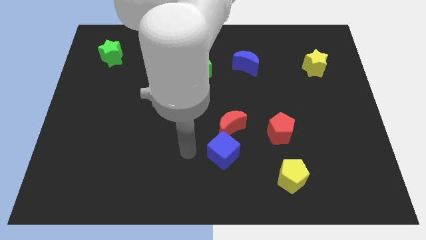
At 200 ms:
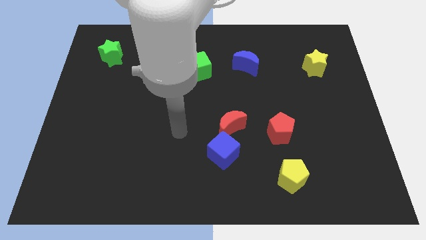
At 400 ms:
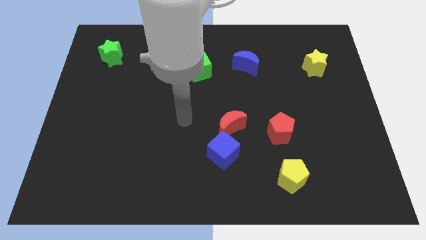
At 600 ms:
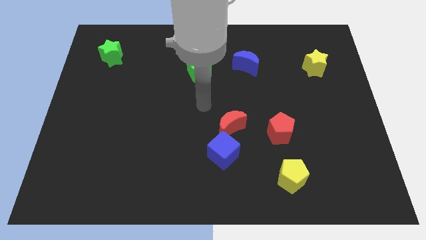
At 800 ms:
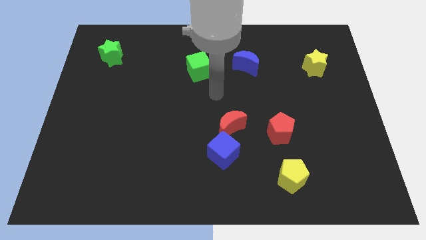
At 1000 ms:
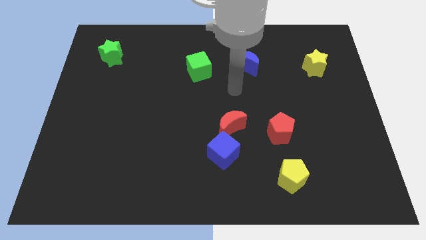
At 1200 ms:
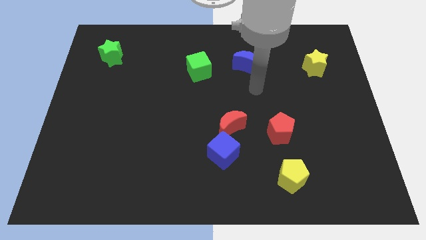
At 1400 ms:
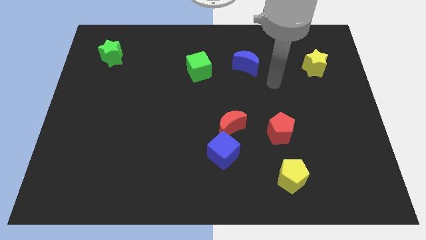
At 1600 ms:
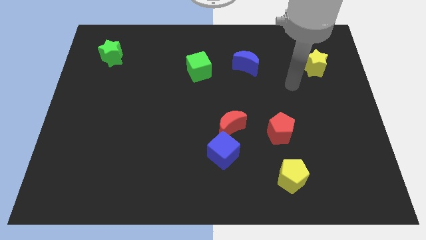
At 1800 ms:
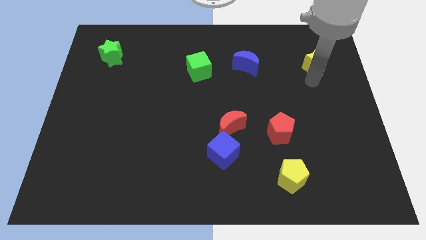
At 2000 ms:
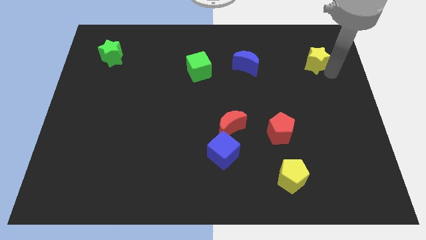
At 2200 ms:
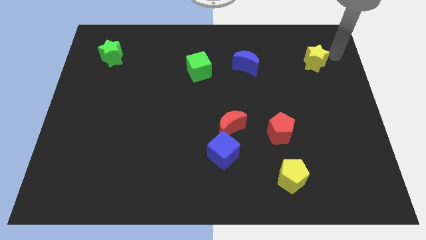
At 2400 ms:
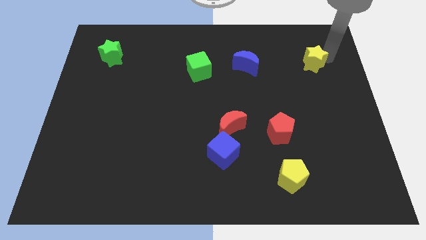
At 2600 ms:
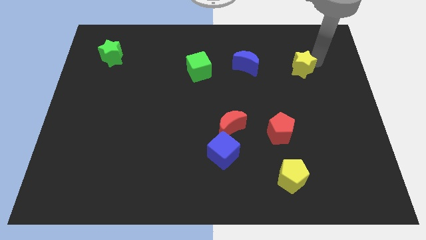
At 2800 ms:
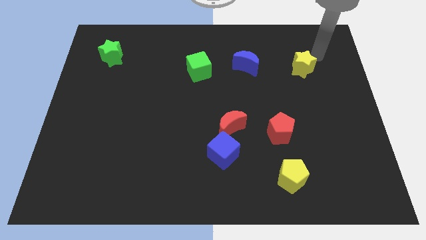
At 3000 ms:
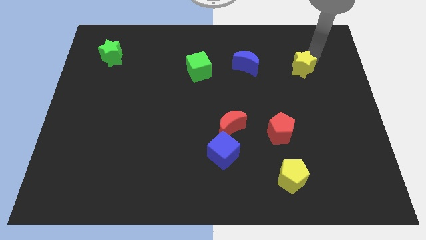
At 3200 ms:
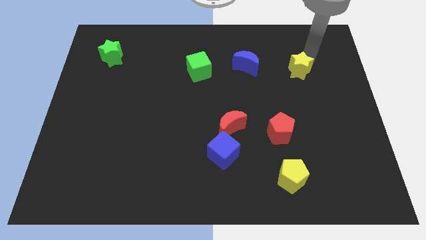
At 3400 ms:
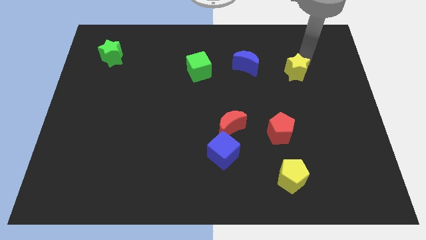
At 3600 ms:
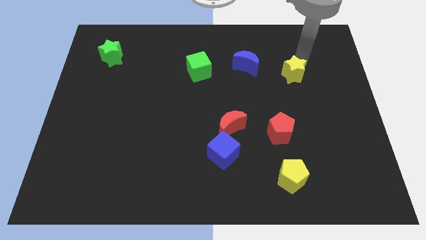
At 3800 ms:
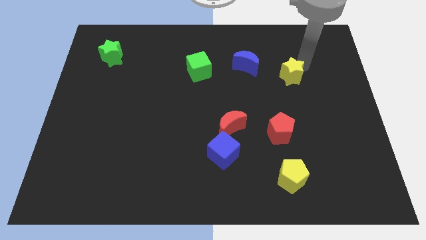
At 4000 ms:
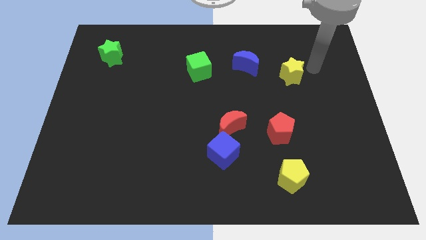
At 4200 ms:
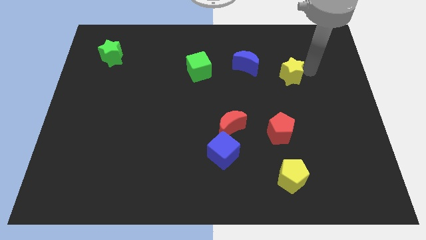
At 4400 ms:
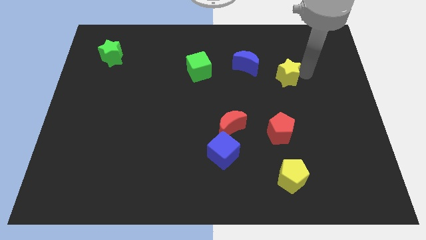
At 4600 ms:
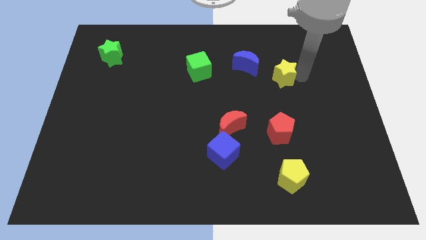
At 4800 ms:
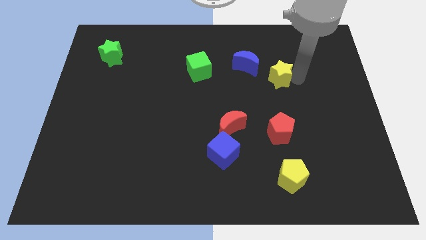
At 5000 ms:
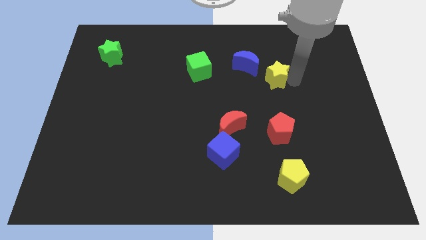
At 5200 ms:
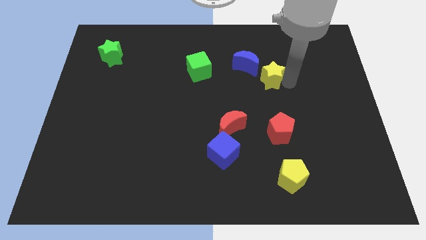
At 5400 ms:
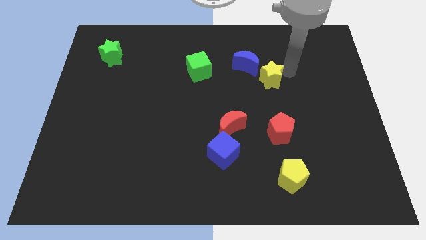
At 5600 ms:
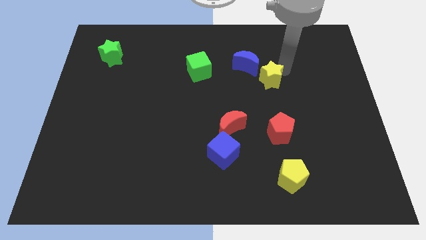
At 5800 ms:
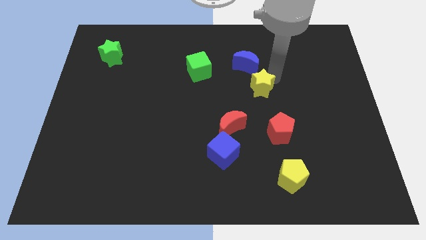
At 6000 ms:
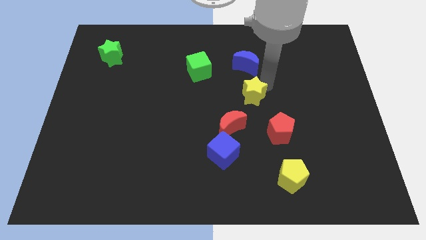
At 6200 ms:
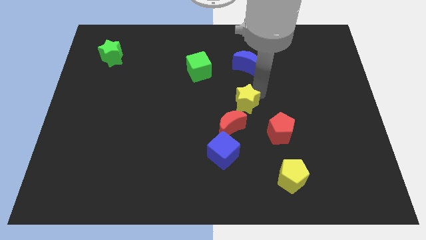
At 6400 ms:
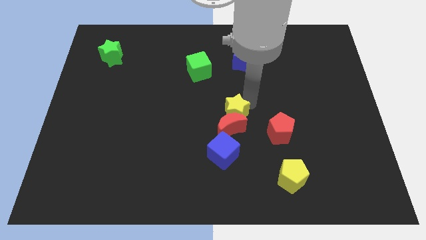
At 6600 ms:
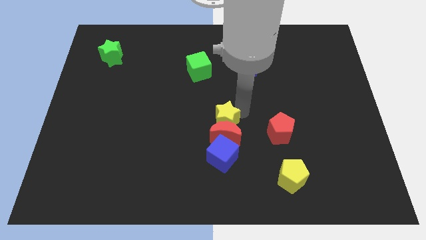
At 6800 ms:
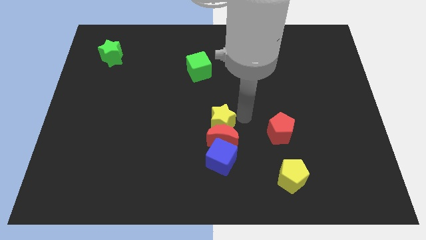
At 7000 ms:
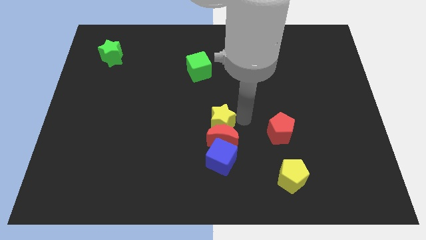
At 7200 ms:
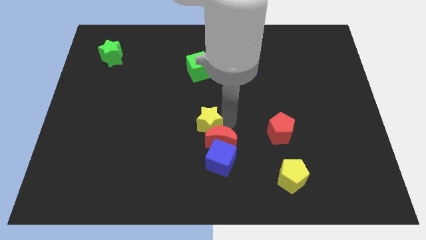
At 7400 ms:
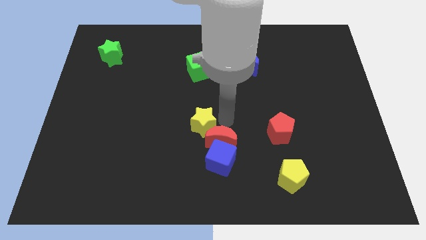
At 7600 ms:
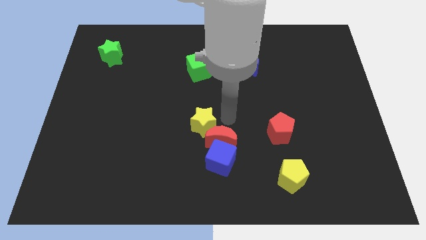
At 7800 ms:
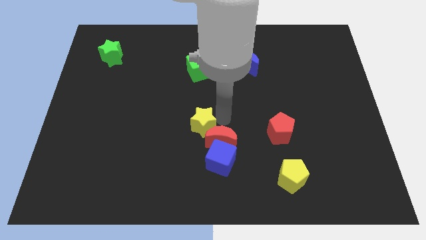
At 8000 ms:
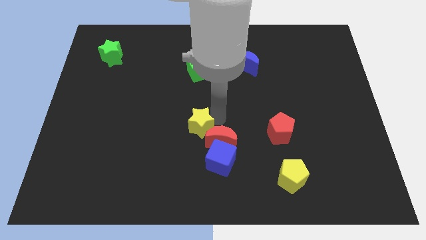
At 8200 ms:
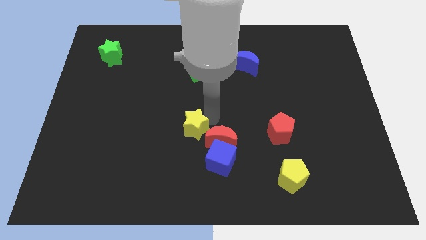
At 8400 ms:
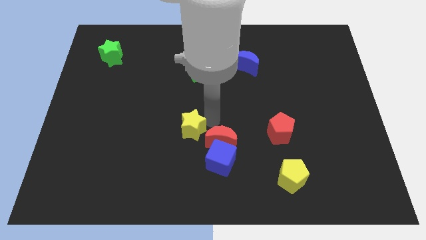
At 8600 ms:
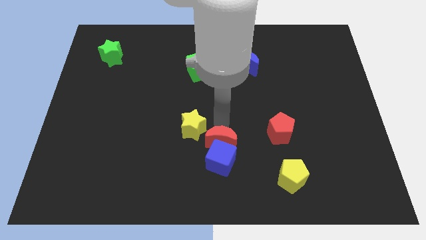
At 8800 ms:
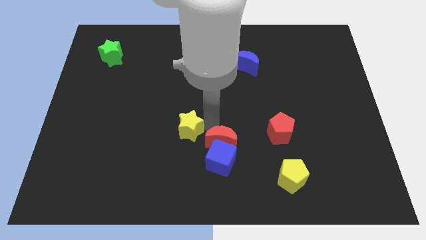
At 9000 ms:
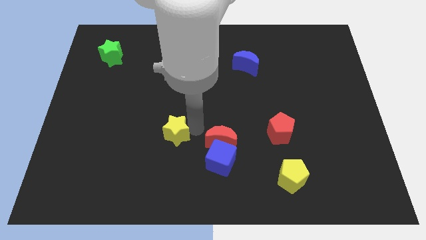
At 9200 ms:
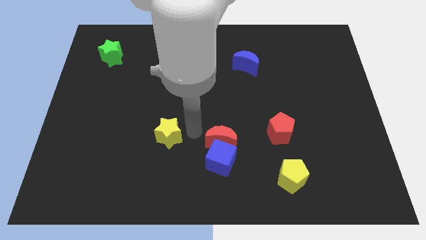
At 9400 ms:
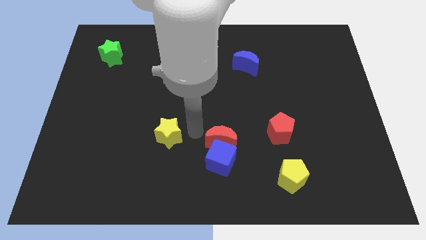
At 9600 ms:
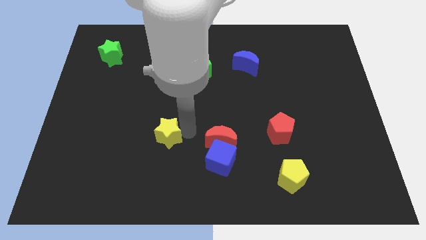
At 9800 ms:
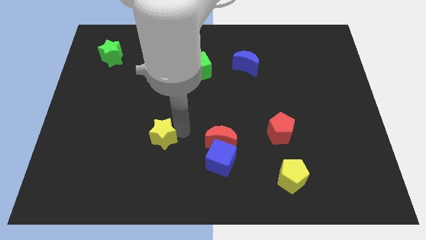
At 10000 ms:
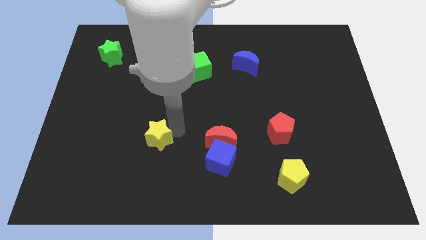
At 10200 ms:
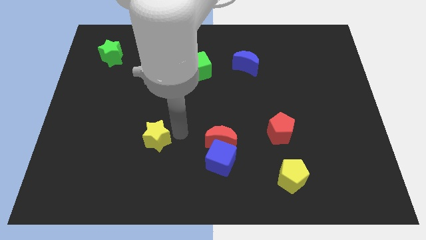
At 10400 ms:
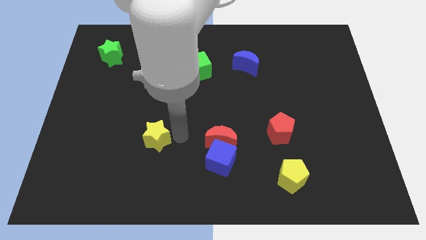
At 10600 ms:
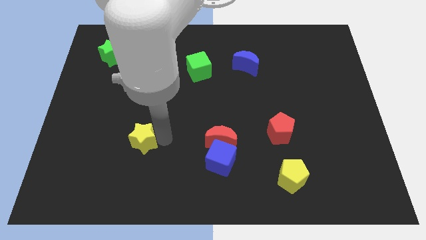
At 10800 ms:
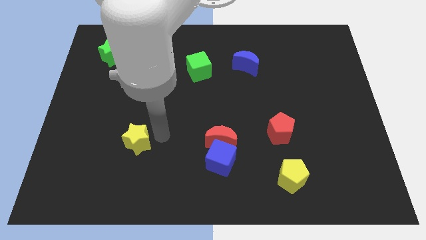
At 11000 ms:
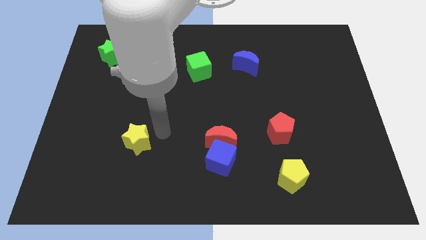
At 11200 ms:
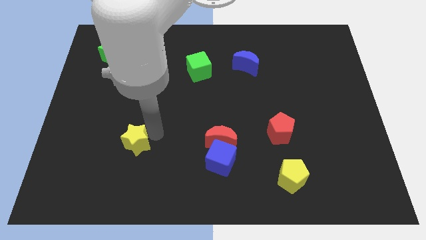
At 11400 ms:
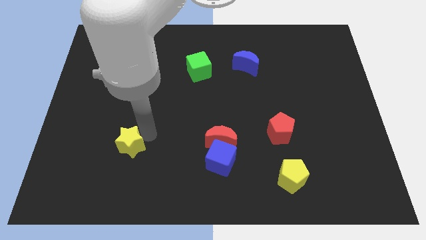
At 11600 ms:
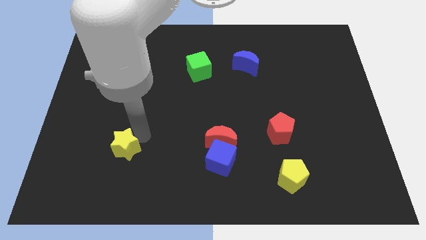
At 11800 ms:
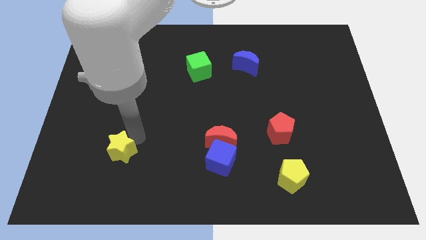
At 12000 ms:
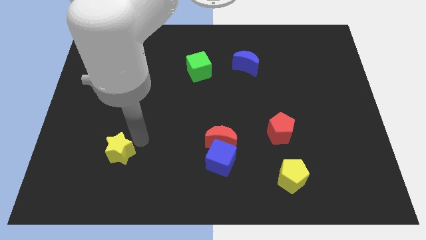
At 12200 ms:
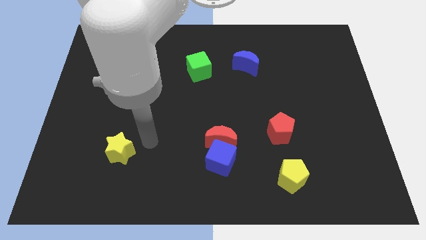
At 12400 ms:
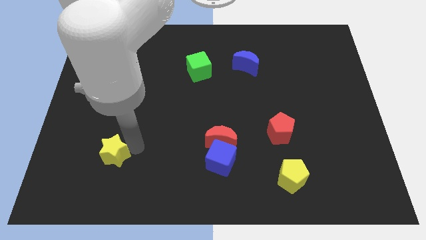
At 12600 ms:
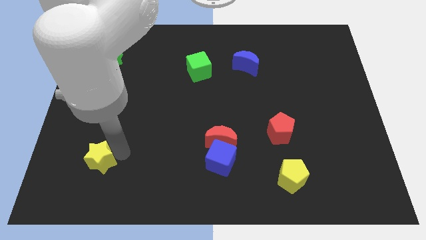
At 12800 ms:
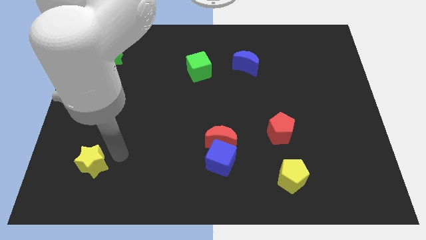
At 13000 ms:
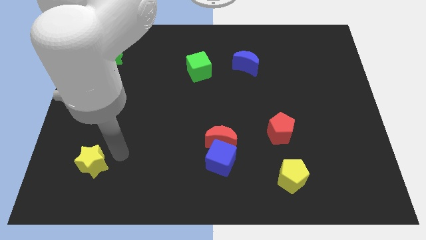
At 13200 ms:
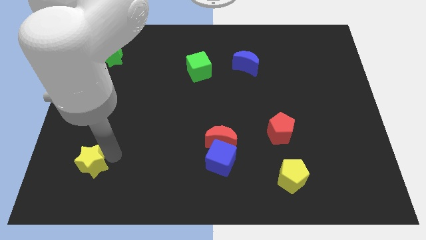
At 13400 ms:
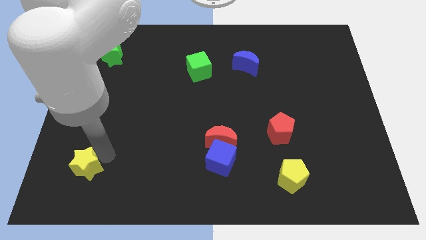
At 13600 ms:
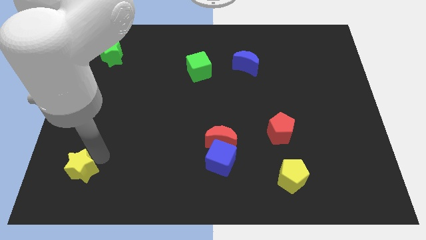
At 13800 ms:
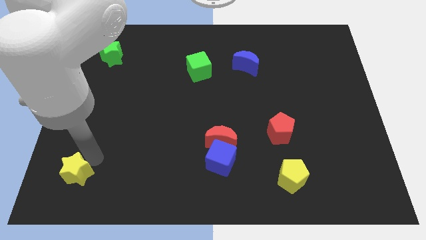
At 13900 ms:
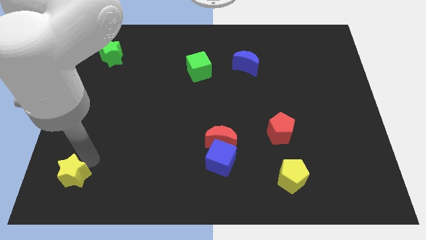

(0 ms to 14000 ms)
move the yellow star to the bottom left

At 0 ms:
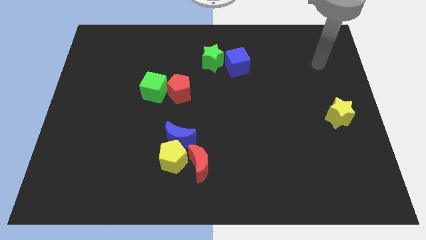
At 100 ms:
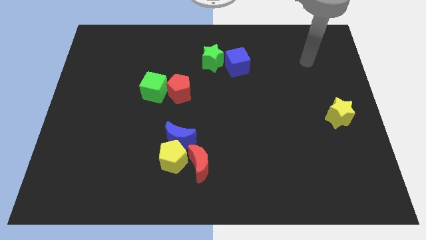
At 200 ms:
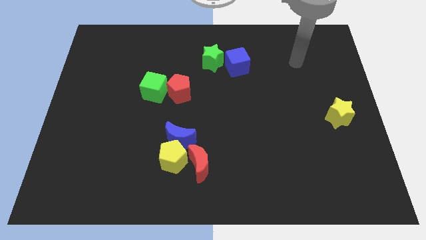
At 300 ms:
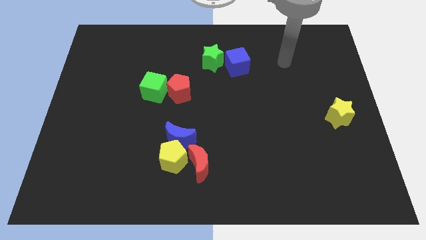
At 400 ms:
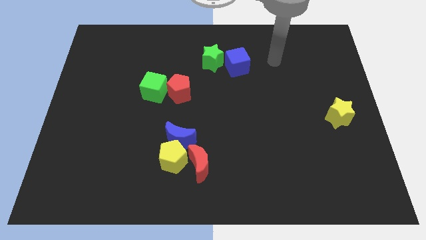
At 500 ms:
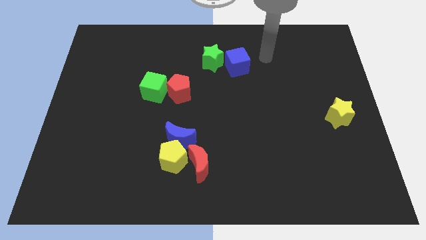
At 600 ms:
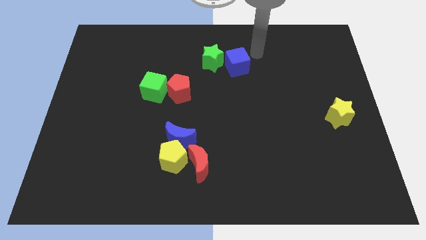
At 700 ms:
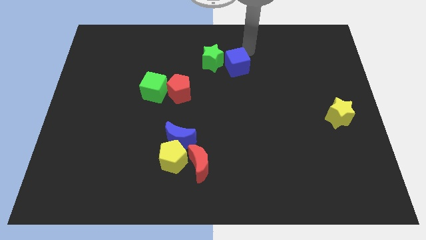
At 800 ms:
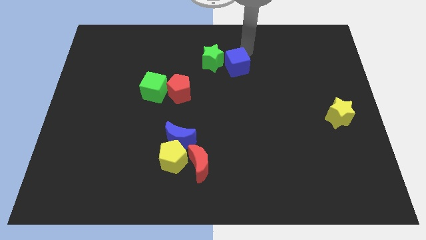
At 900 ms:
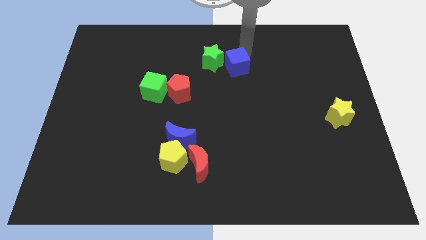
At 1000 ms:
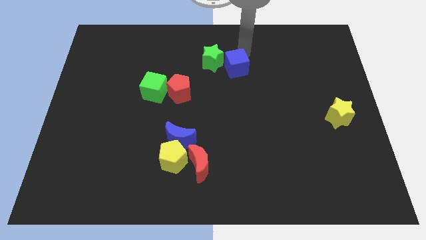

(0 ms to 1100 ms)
put the blue cube to the middle of the board
